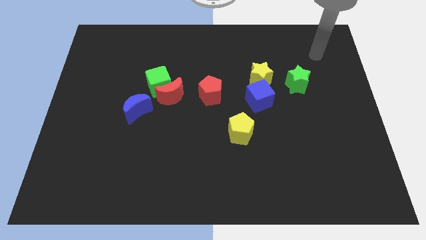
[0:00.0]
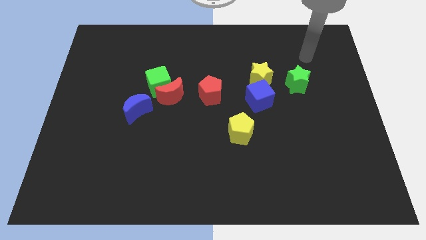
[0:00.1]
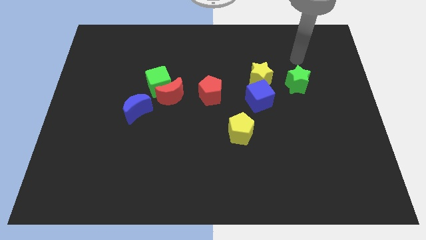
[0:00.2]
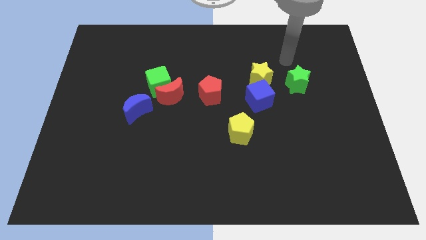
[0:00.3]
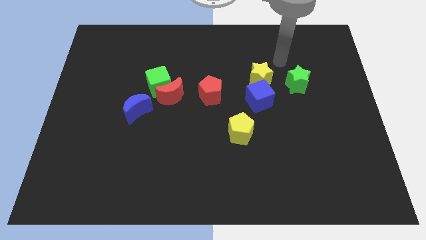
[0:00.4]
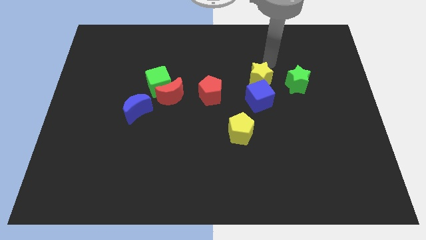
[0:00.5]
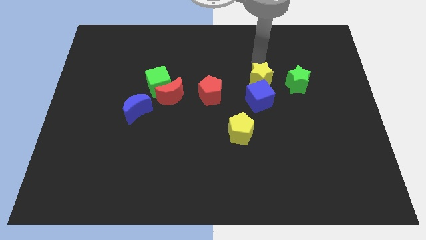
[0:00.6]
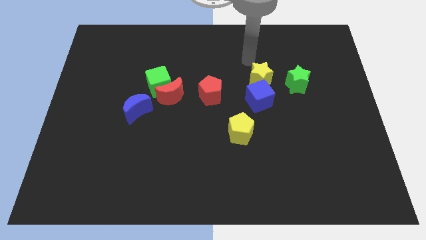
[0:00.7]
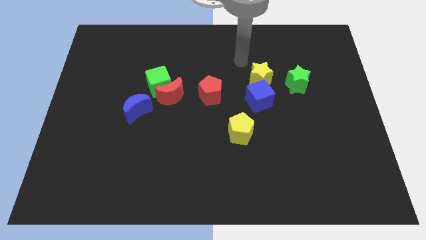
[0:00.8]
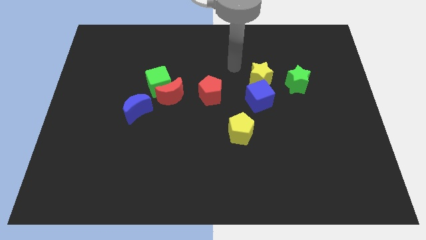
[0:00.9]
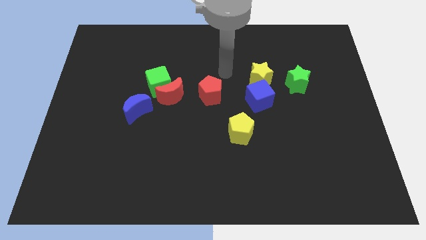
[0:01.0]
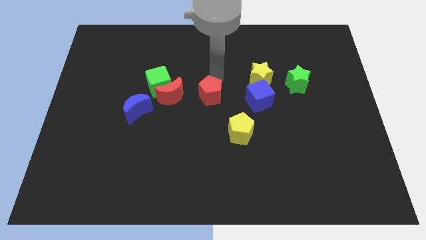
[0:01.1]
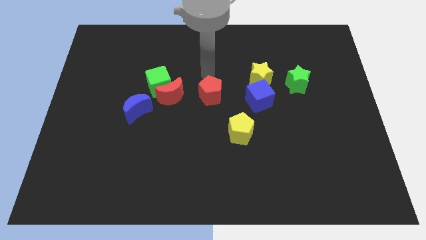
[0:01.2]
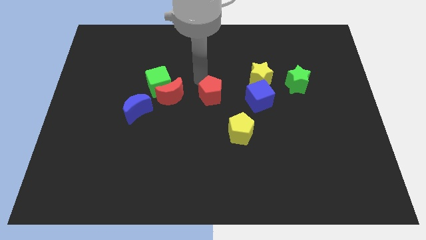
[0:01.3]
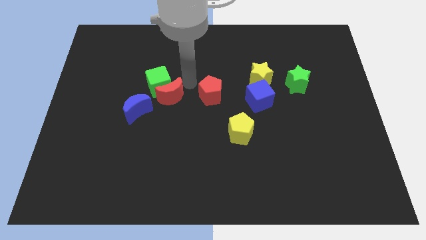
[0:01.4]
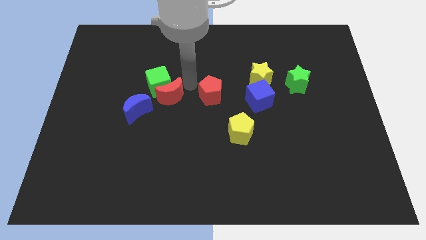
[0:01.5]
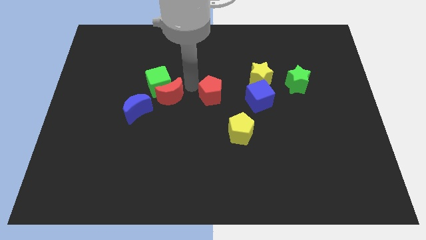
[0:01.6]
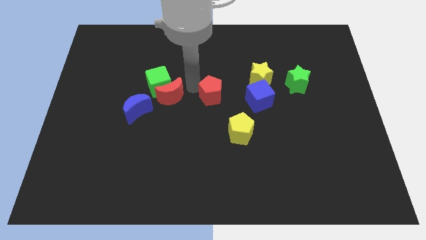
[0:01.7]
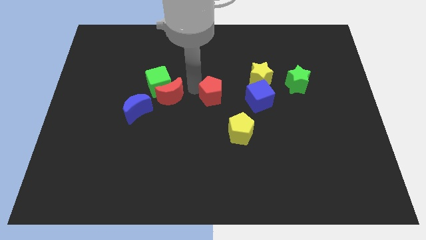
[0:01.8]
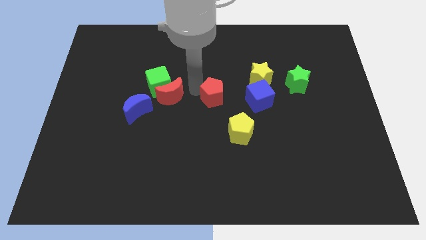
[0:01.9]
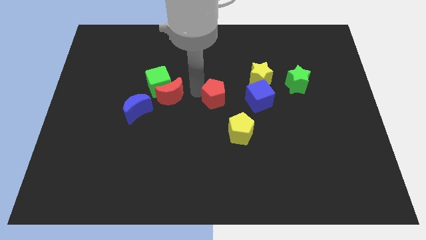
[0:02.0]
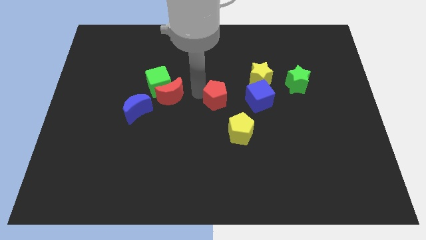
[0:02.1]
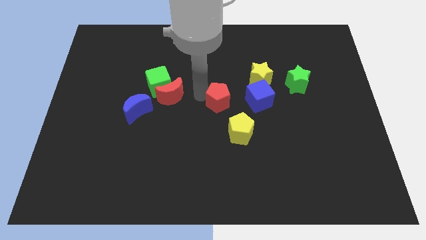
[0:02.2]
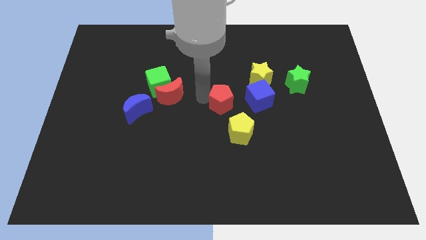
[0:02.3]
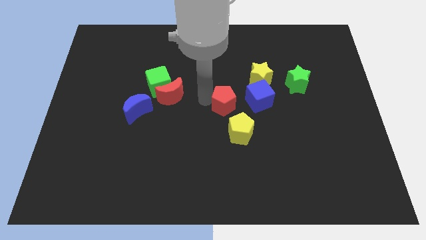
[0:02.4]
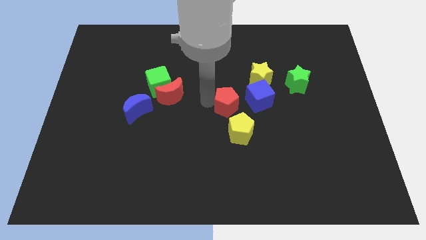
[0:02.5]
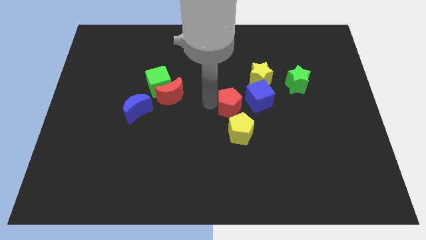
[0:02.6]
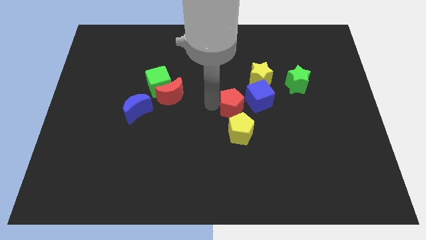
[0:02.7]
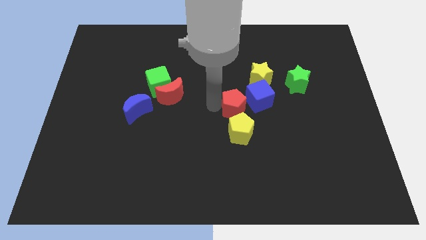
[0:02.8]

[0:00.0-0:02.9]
slightly push the red pentagon down and right diagonally

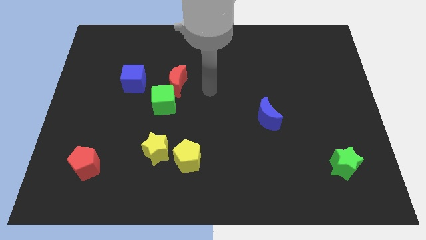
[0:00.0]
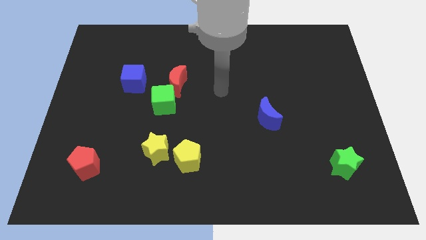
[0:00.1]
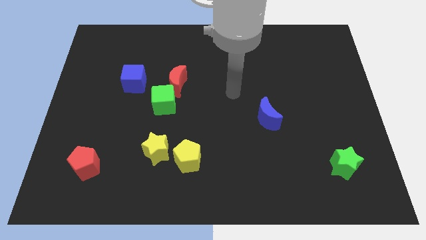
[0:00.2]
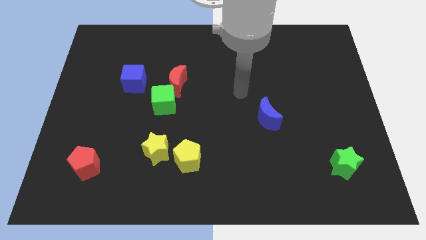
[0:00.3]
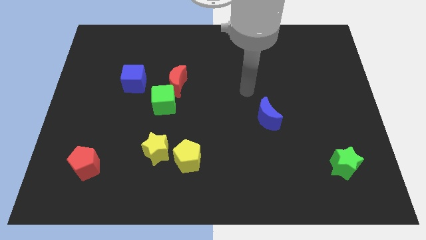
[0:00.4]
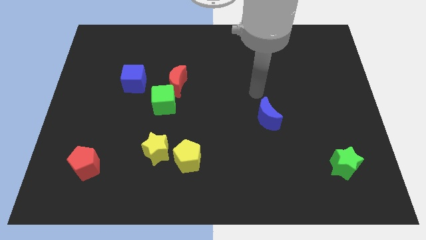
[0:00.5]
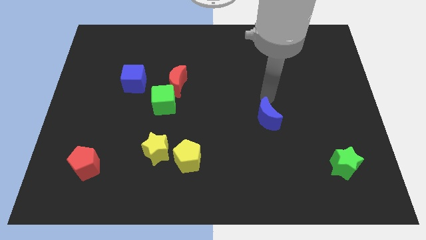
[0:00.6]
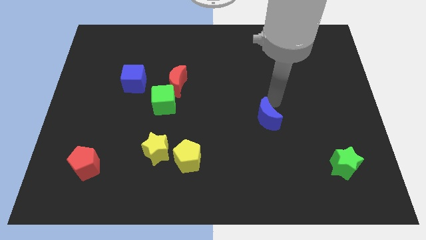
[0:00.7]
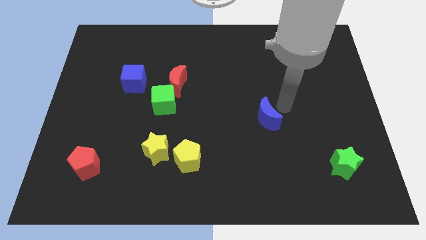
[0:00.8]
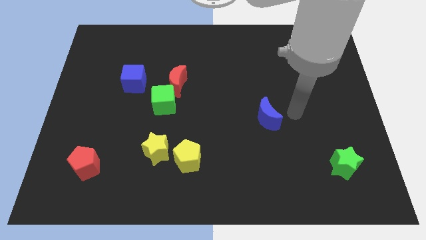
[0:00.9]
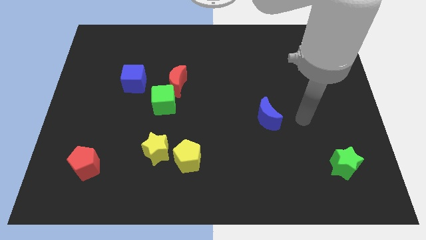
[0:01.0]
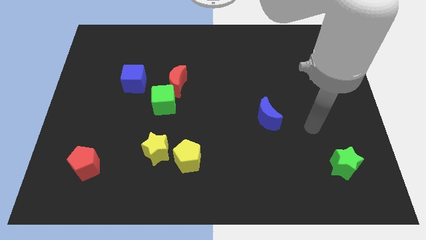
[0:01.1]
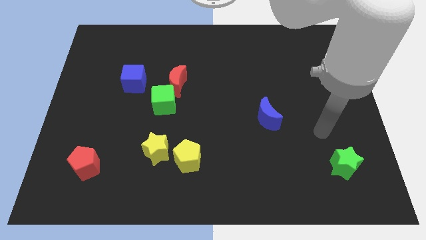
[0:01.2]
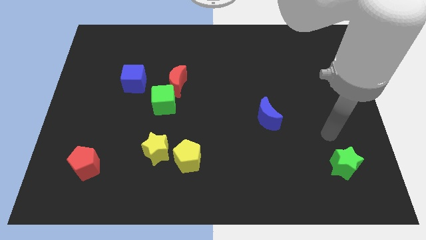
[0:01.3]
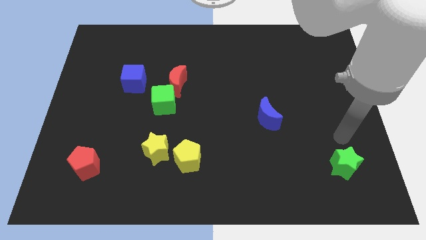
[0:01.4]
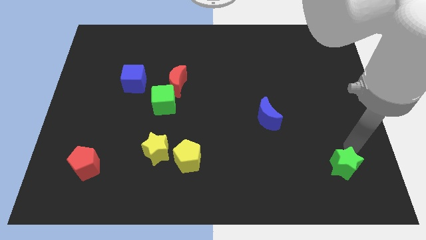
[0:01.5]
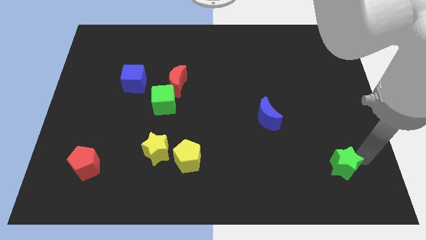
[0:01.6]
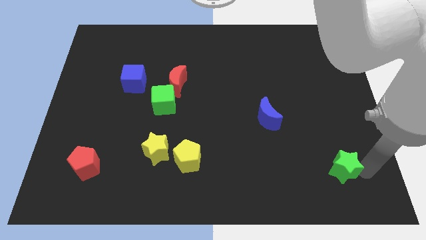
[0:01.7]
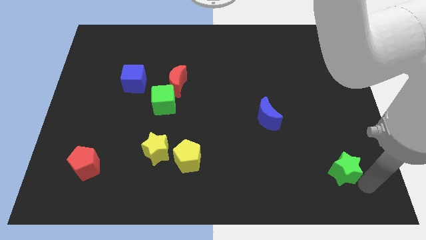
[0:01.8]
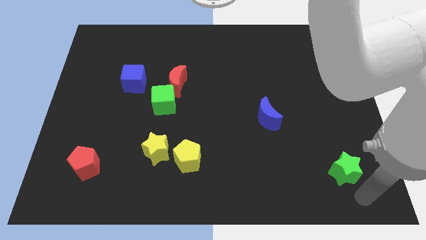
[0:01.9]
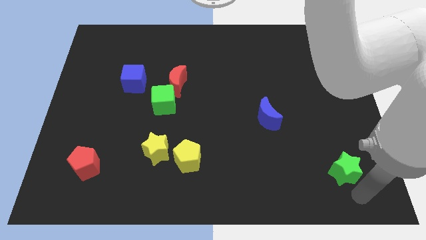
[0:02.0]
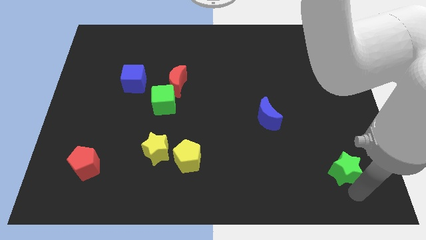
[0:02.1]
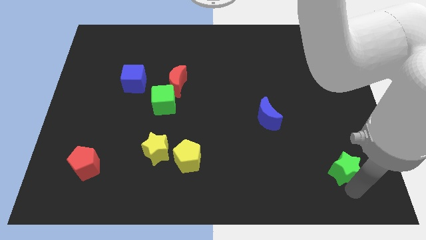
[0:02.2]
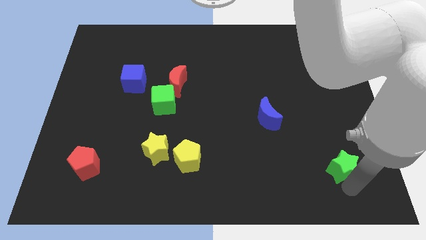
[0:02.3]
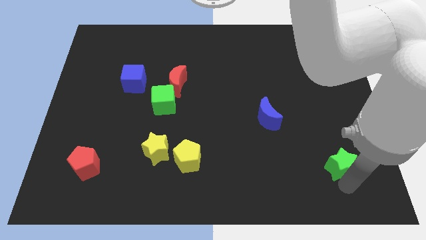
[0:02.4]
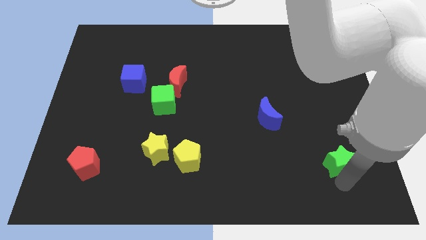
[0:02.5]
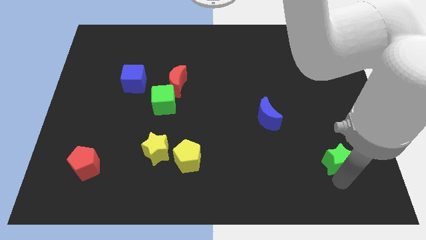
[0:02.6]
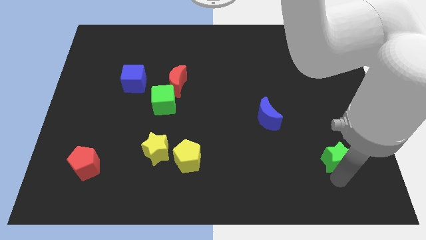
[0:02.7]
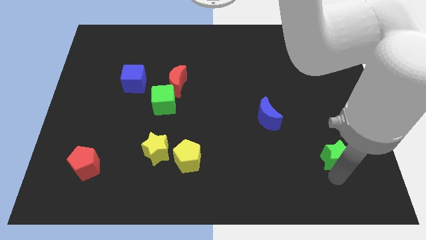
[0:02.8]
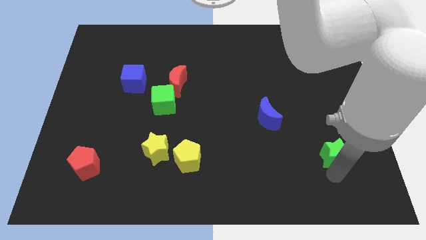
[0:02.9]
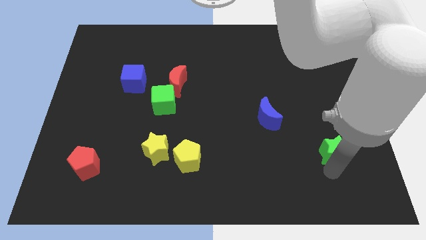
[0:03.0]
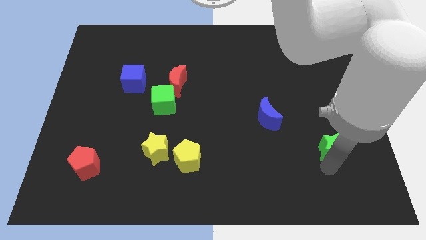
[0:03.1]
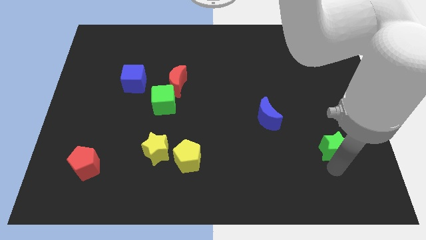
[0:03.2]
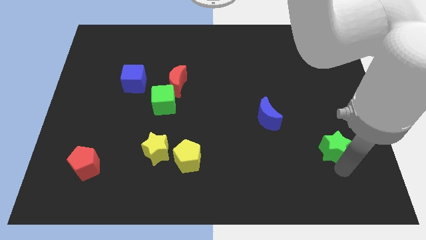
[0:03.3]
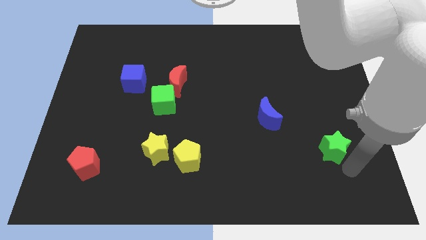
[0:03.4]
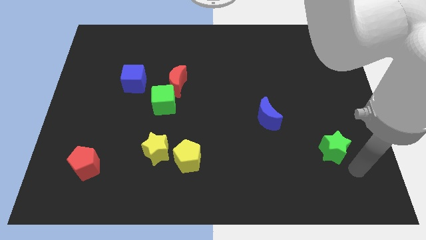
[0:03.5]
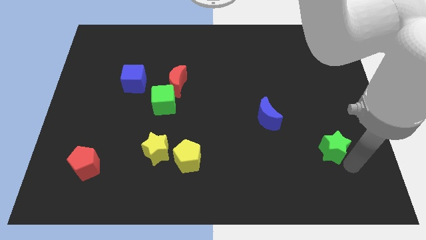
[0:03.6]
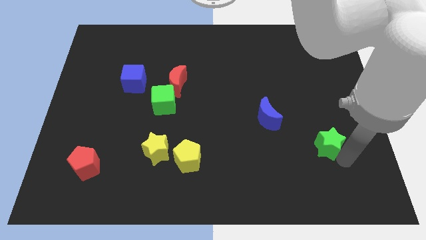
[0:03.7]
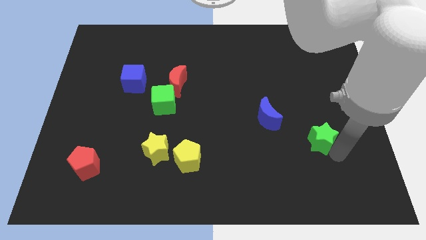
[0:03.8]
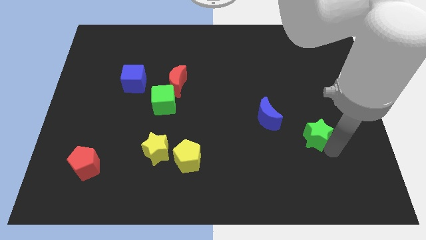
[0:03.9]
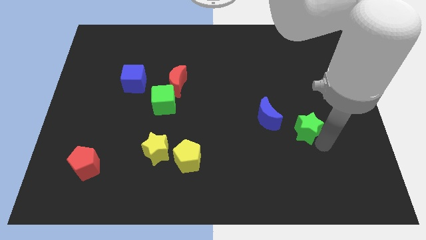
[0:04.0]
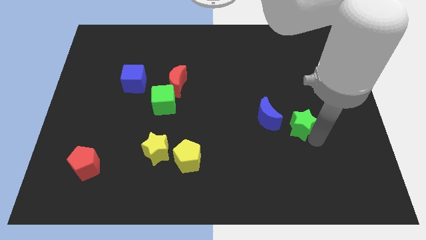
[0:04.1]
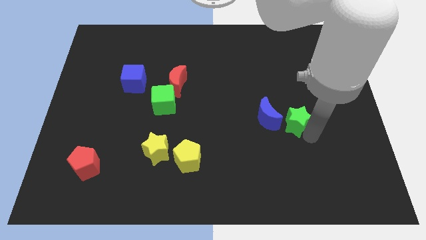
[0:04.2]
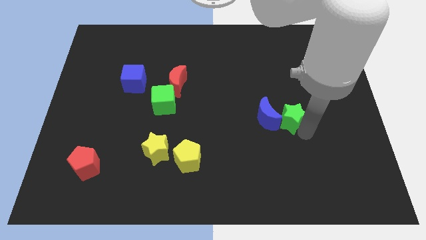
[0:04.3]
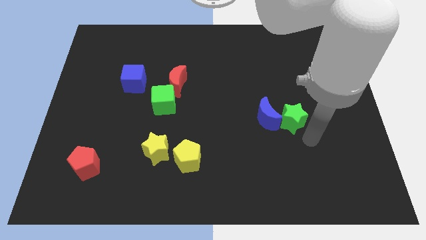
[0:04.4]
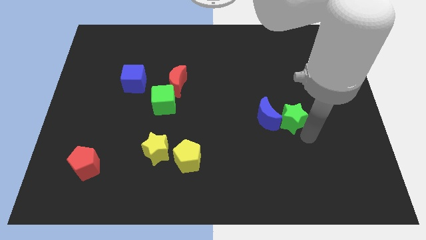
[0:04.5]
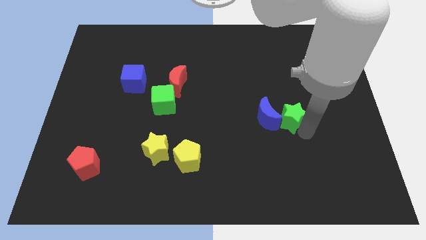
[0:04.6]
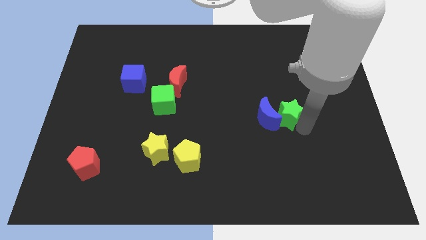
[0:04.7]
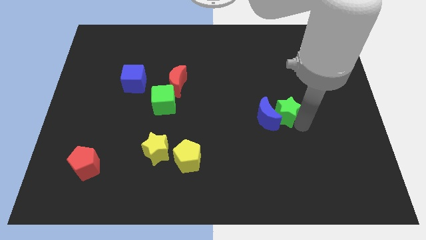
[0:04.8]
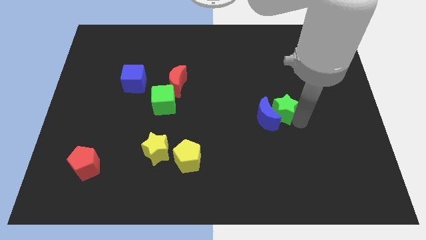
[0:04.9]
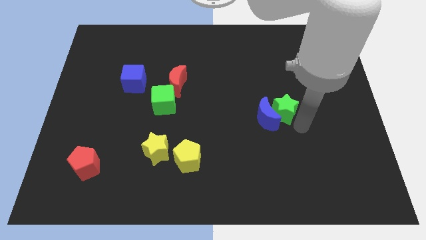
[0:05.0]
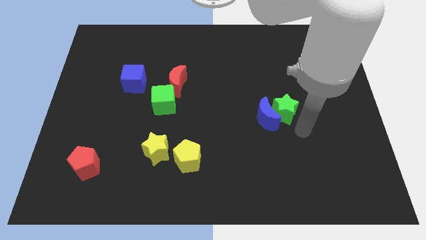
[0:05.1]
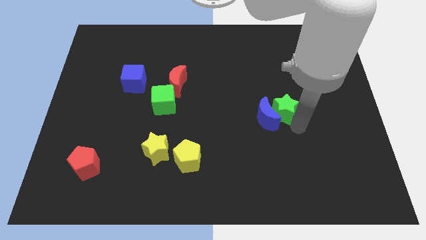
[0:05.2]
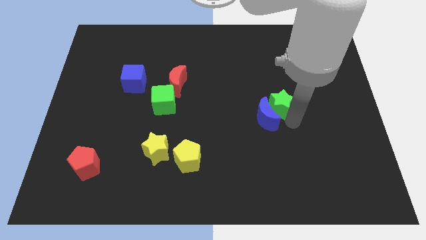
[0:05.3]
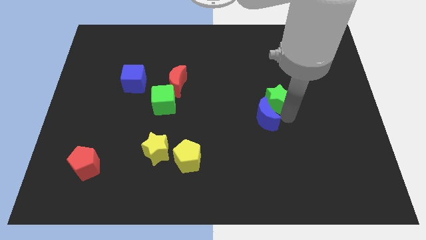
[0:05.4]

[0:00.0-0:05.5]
slide the green star diagonally upwards and left
